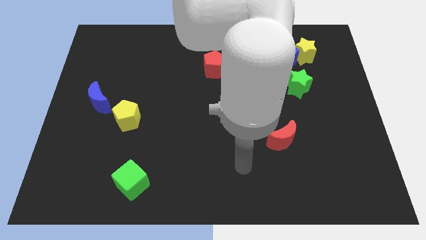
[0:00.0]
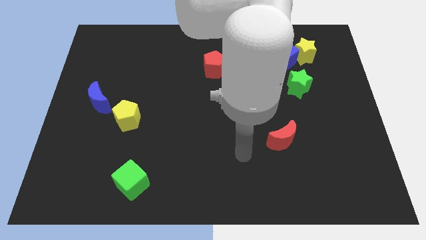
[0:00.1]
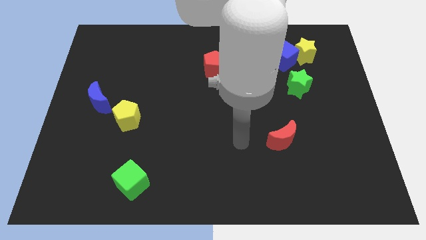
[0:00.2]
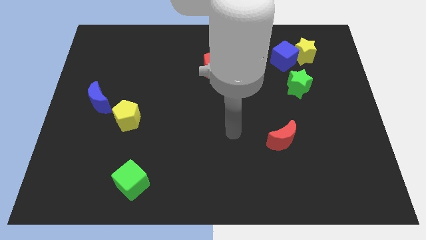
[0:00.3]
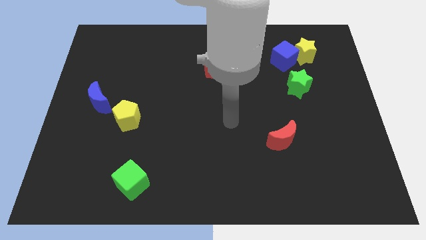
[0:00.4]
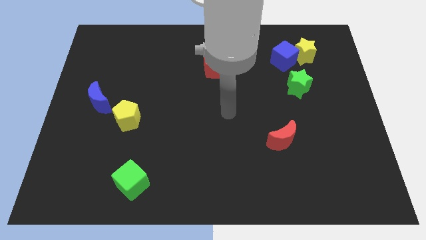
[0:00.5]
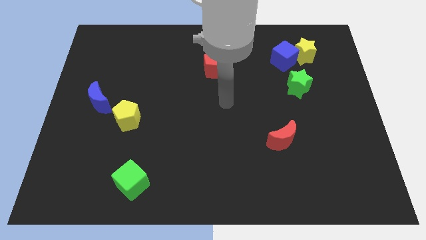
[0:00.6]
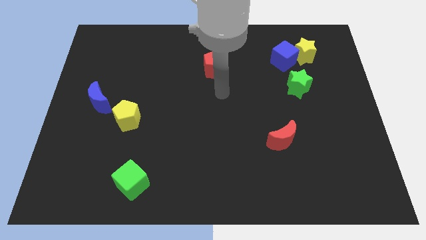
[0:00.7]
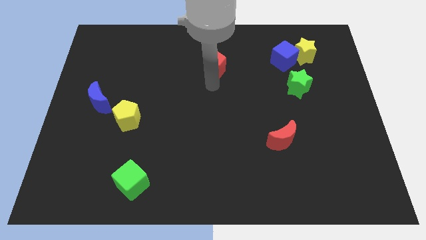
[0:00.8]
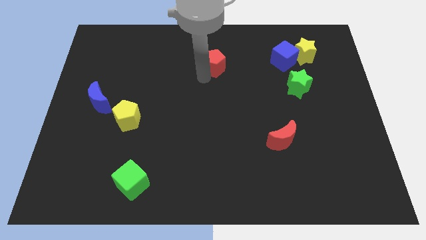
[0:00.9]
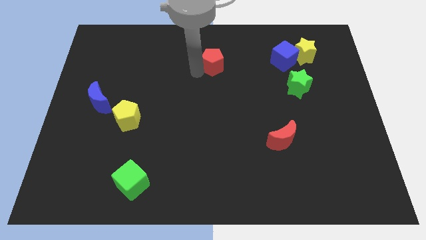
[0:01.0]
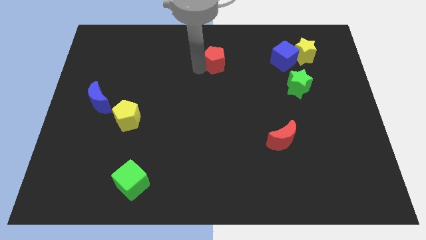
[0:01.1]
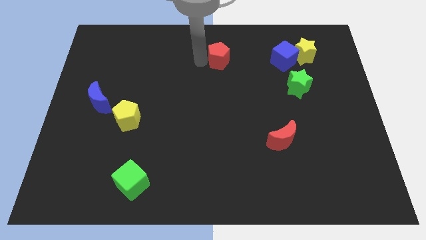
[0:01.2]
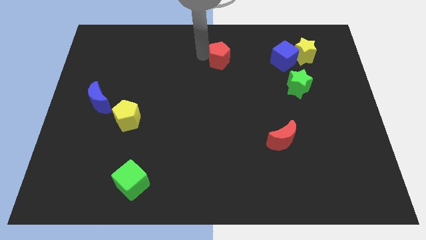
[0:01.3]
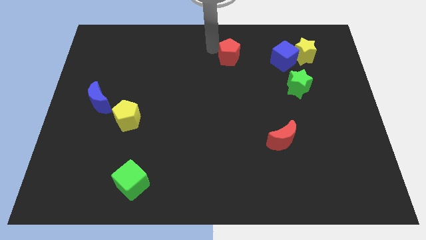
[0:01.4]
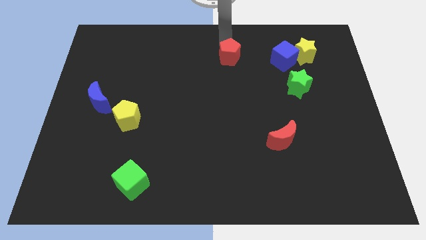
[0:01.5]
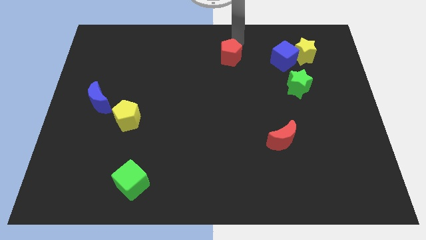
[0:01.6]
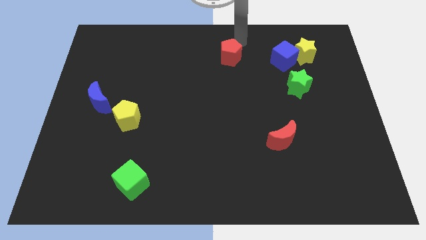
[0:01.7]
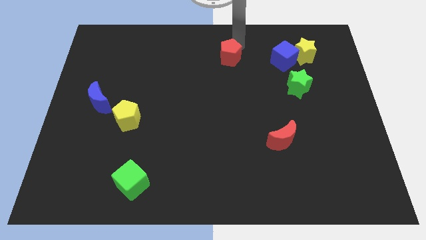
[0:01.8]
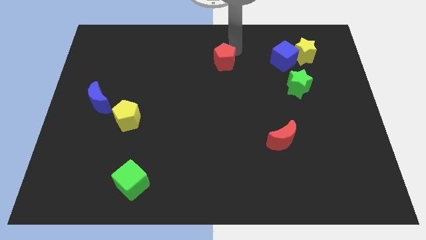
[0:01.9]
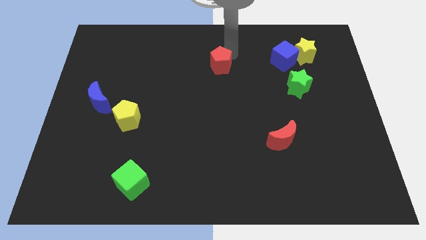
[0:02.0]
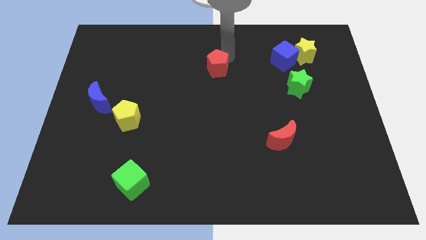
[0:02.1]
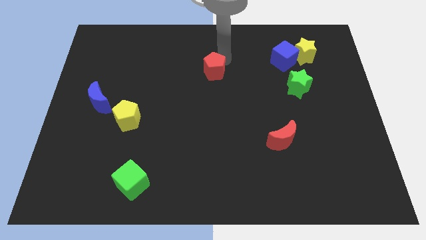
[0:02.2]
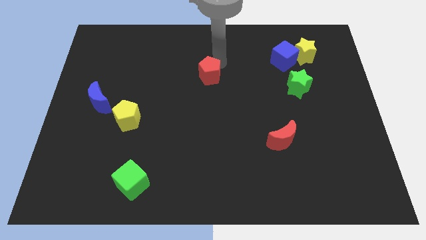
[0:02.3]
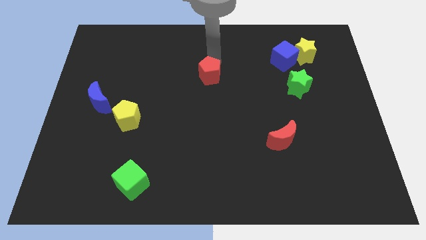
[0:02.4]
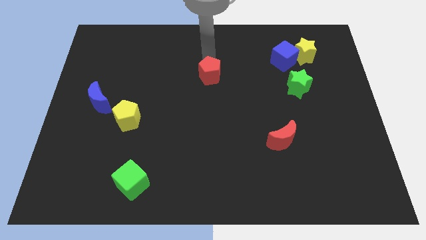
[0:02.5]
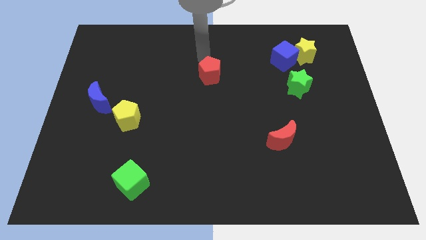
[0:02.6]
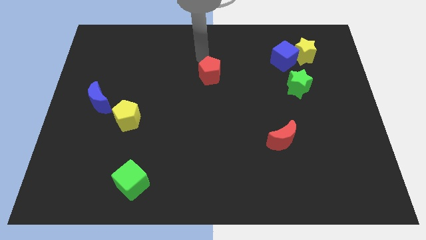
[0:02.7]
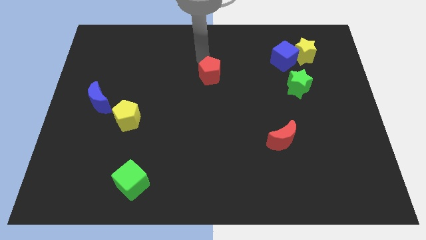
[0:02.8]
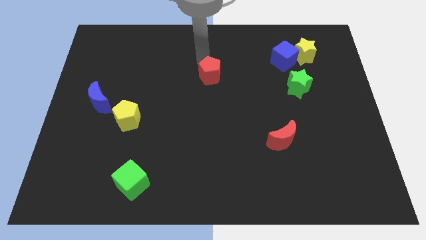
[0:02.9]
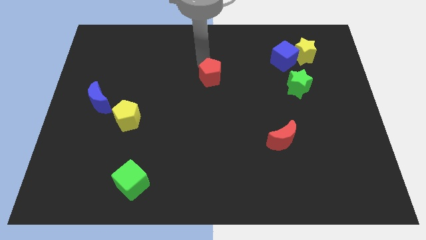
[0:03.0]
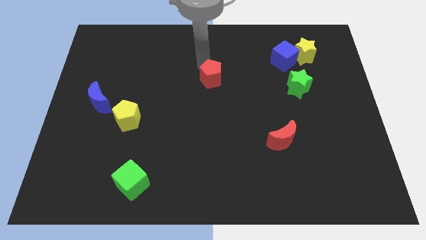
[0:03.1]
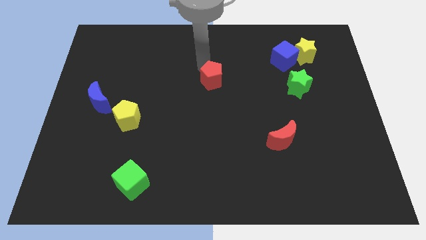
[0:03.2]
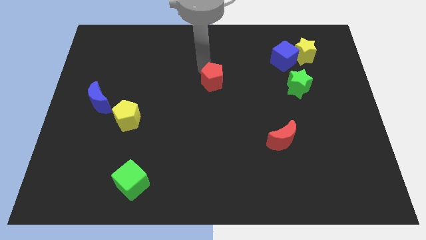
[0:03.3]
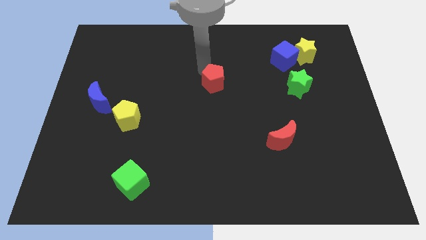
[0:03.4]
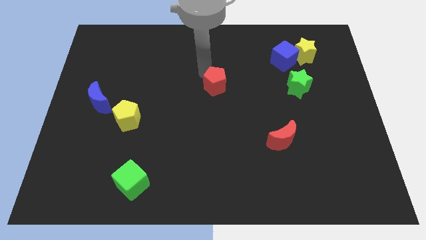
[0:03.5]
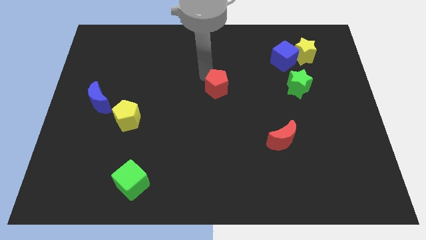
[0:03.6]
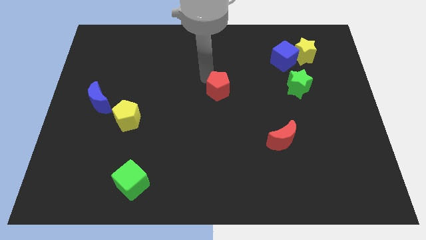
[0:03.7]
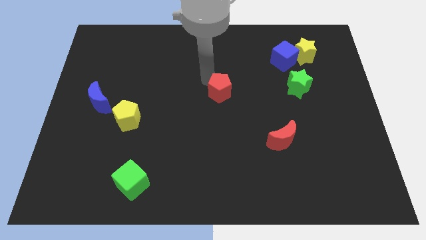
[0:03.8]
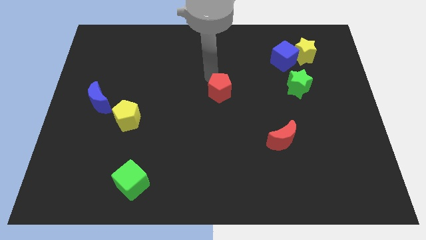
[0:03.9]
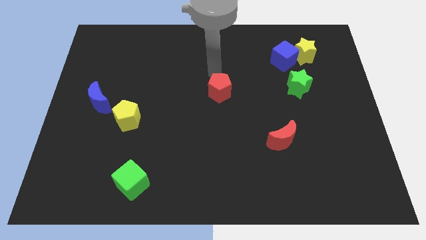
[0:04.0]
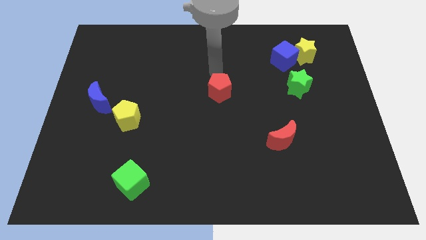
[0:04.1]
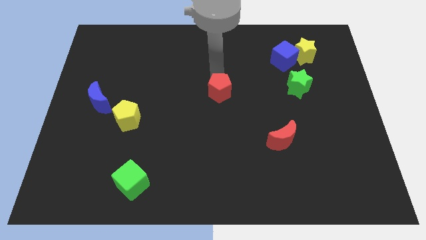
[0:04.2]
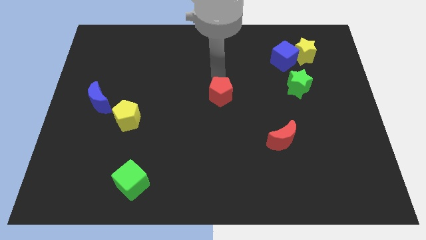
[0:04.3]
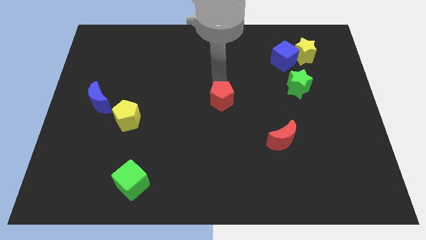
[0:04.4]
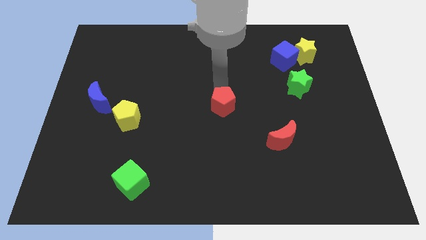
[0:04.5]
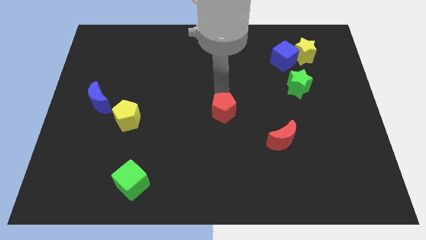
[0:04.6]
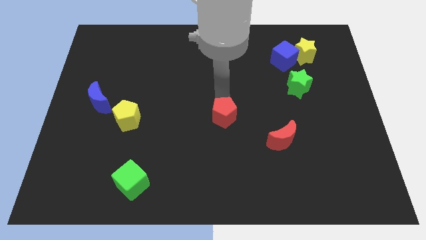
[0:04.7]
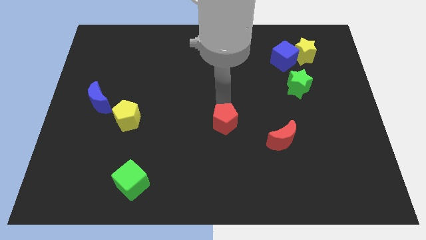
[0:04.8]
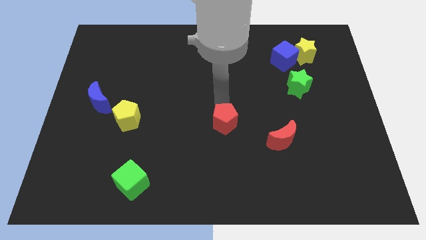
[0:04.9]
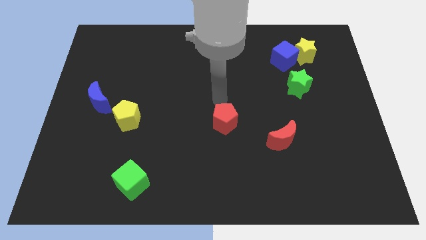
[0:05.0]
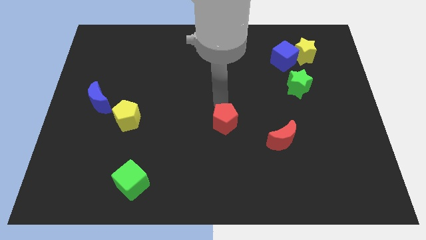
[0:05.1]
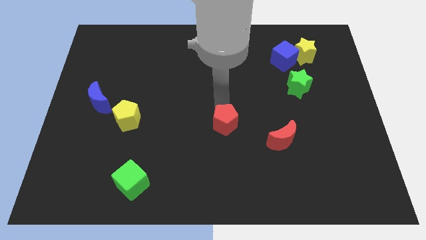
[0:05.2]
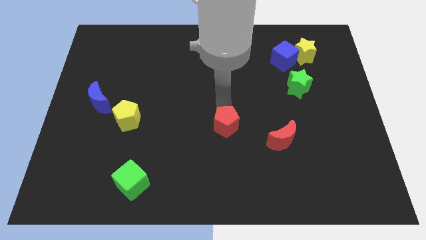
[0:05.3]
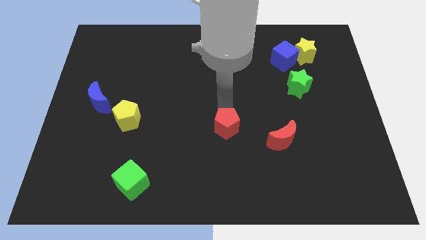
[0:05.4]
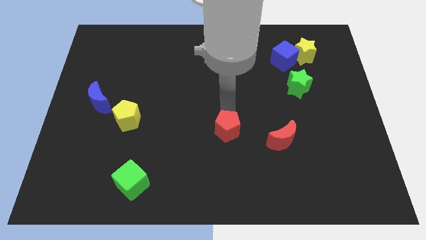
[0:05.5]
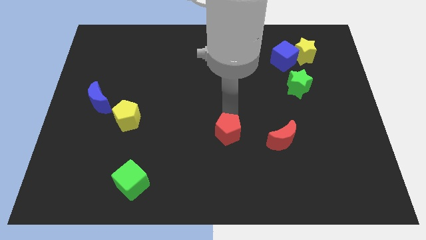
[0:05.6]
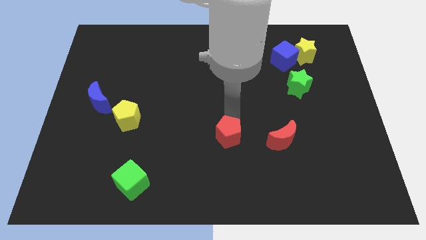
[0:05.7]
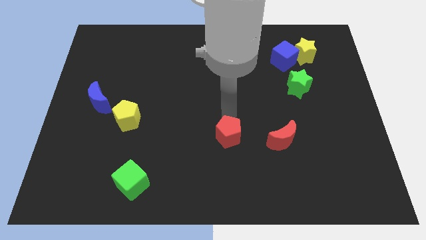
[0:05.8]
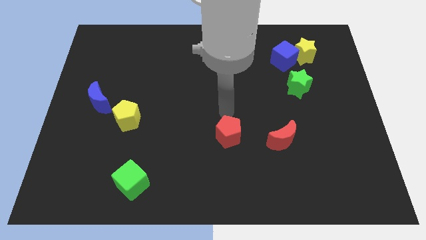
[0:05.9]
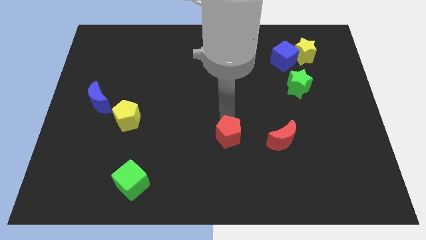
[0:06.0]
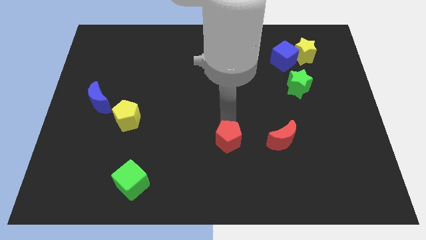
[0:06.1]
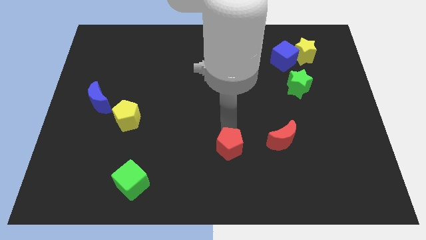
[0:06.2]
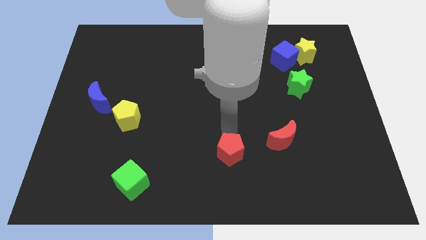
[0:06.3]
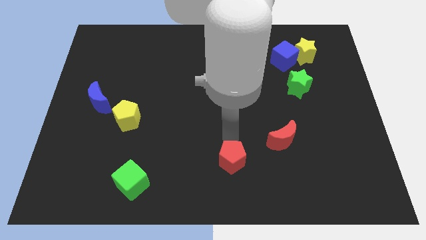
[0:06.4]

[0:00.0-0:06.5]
move the red pentagon to the bottom side
